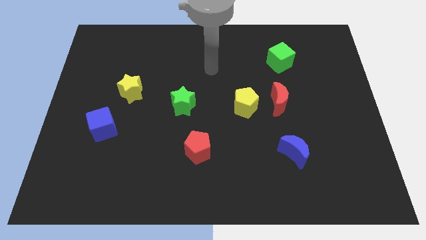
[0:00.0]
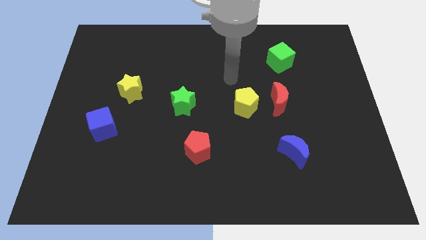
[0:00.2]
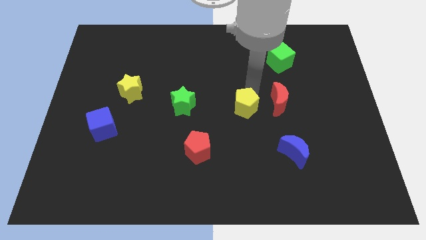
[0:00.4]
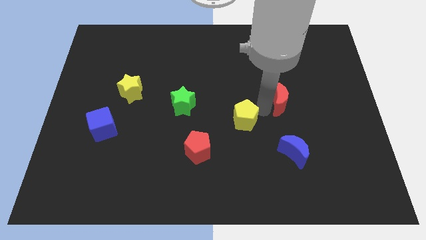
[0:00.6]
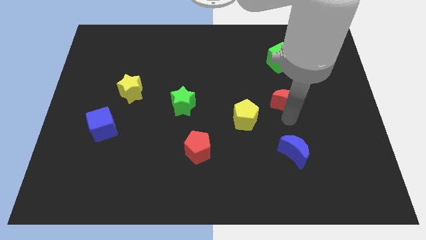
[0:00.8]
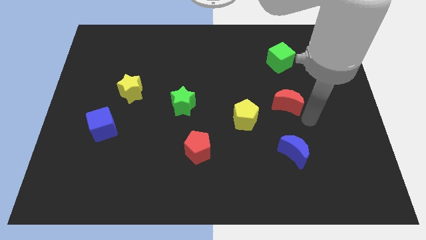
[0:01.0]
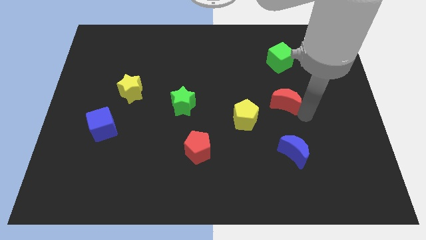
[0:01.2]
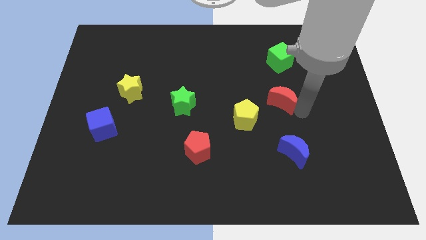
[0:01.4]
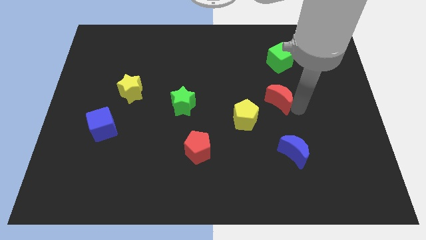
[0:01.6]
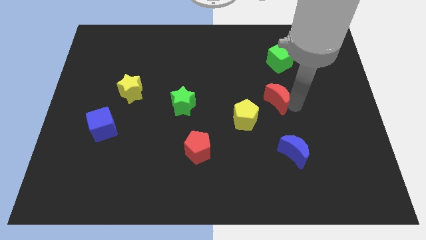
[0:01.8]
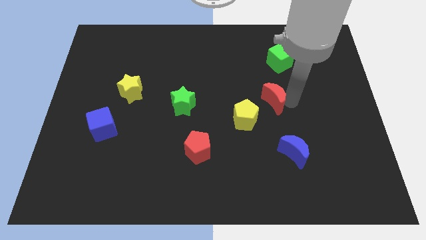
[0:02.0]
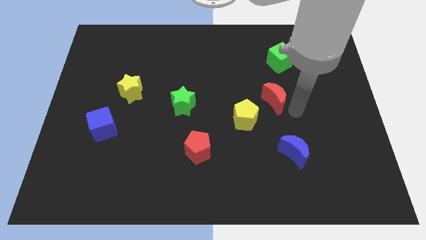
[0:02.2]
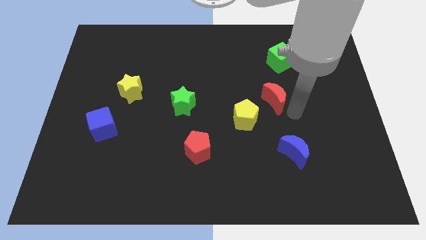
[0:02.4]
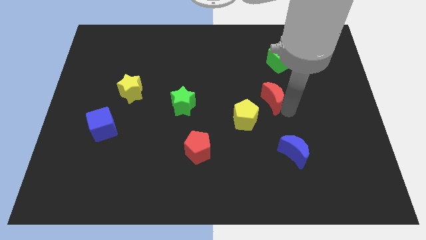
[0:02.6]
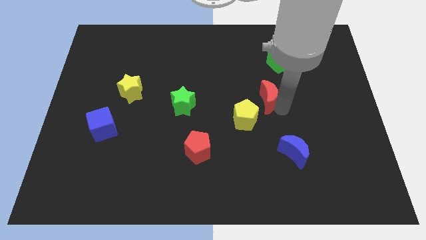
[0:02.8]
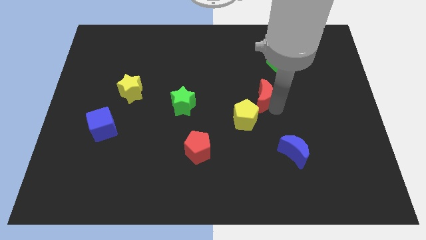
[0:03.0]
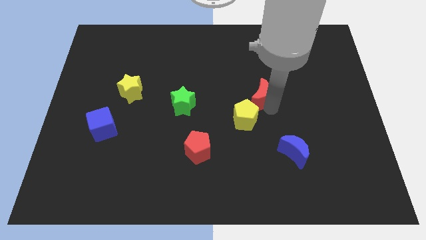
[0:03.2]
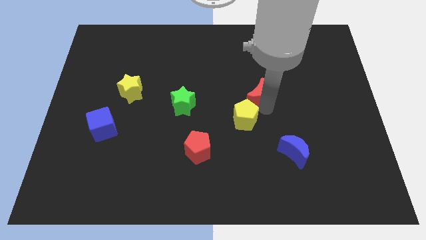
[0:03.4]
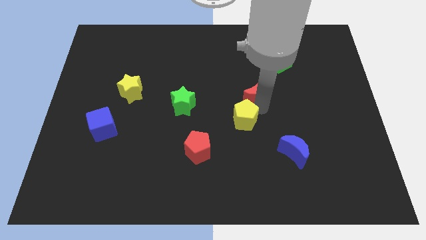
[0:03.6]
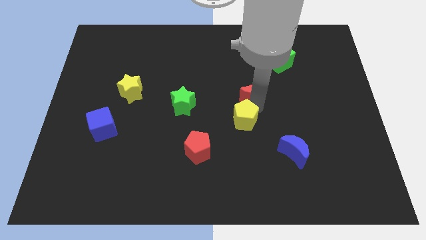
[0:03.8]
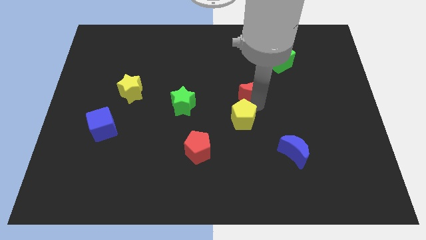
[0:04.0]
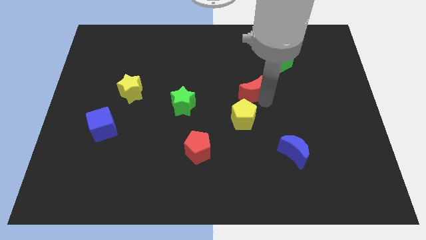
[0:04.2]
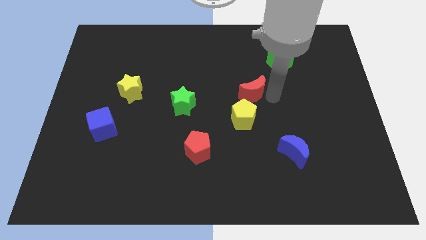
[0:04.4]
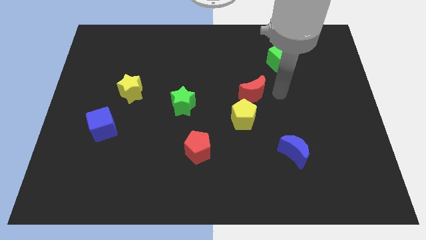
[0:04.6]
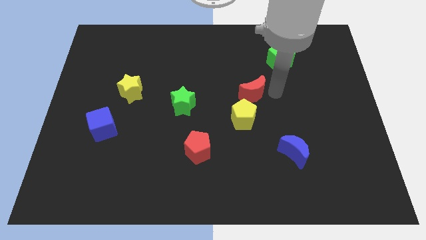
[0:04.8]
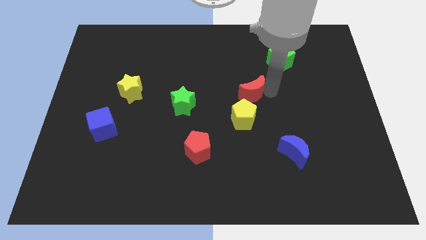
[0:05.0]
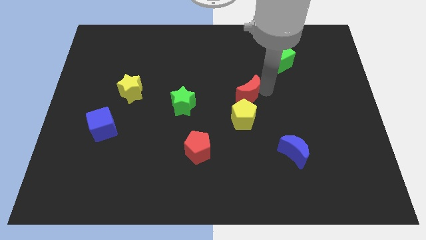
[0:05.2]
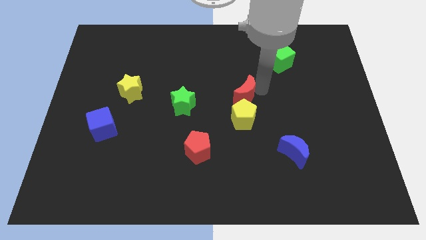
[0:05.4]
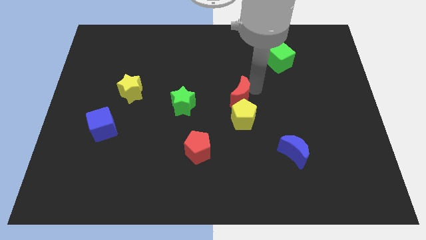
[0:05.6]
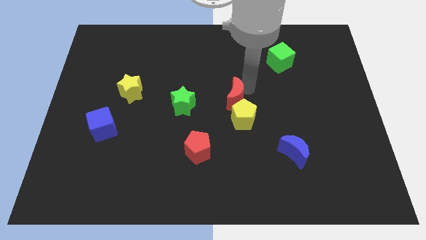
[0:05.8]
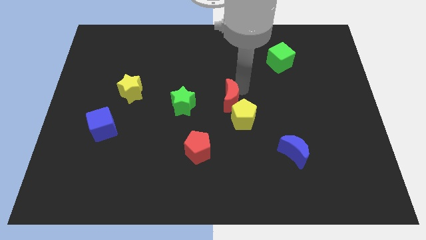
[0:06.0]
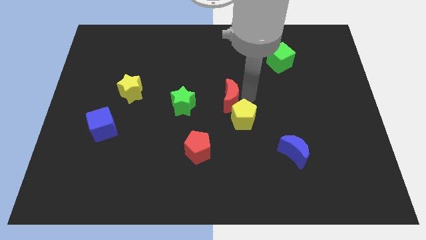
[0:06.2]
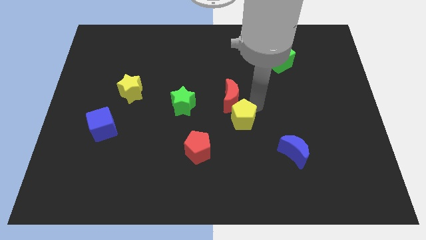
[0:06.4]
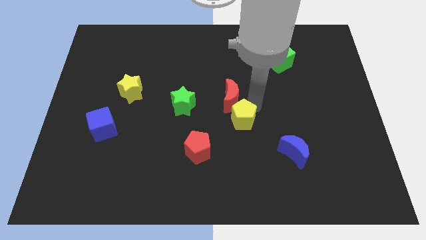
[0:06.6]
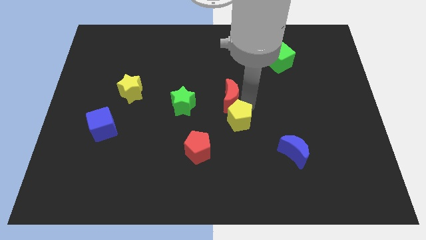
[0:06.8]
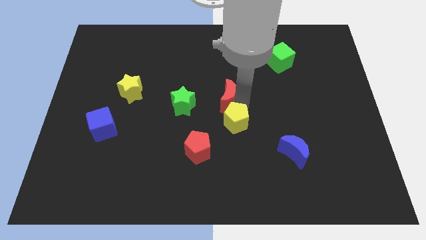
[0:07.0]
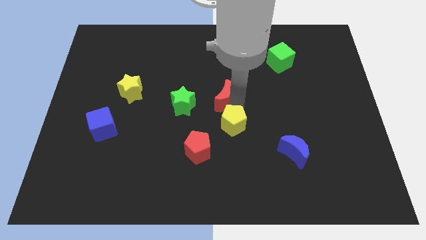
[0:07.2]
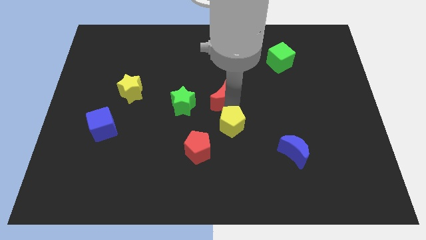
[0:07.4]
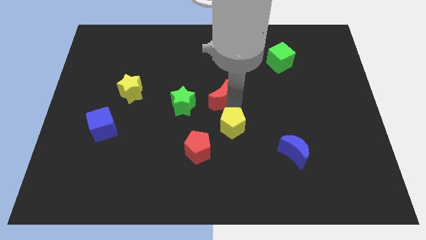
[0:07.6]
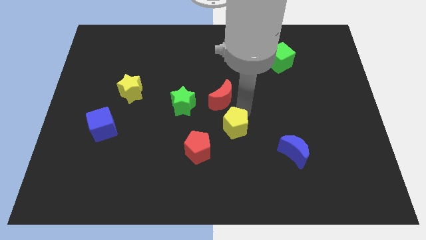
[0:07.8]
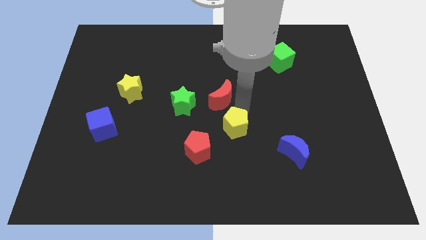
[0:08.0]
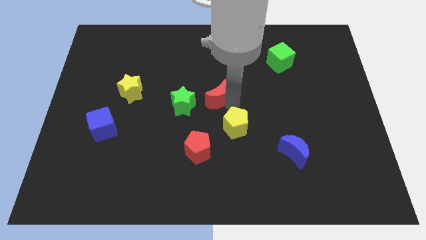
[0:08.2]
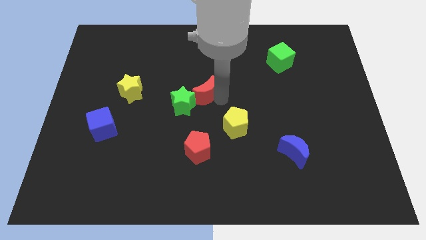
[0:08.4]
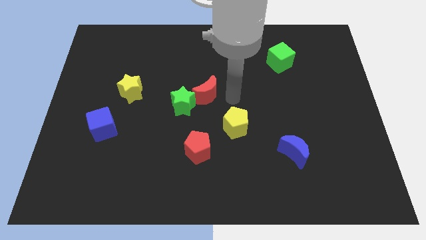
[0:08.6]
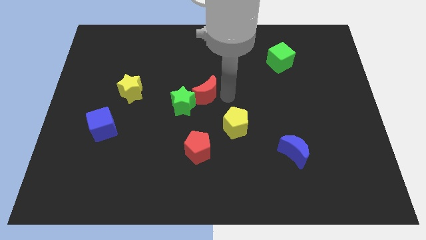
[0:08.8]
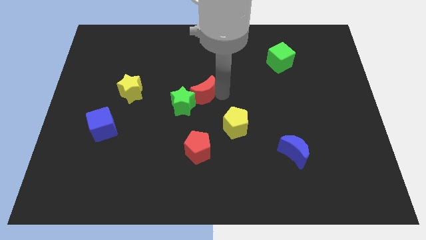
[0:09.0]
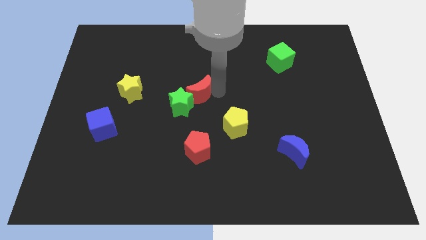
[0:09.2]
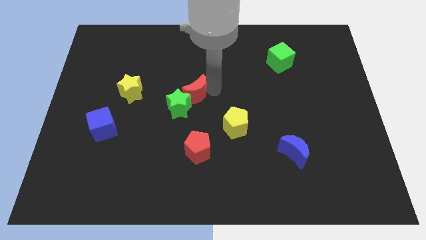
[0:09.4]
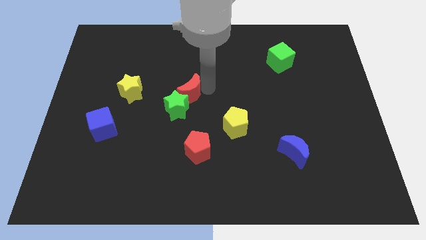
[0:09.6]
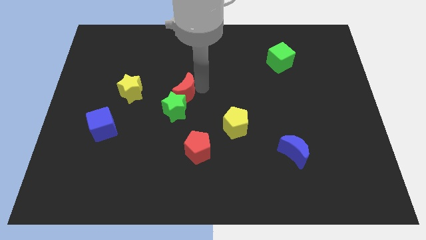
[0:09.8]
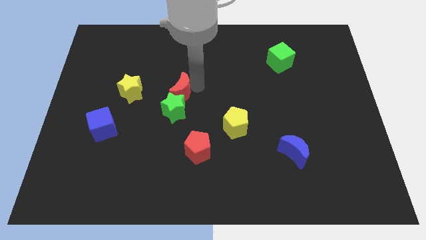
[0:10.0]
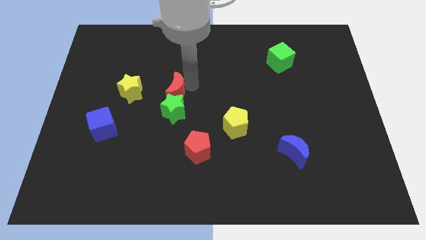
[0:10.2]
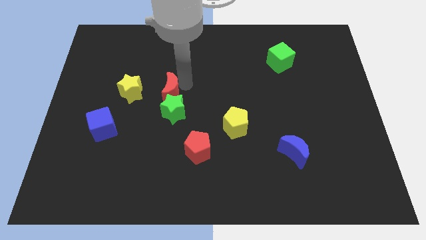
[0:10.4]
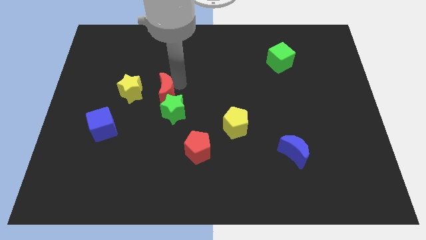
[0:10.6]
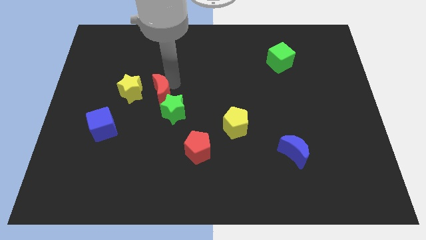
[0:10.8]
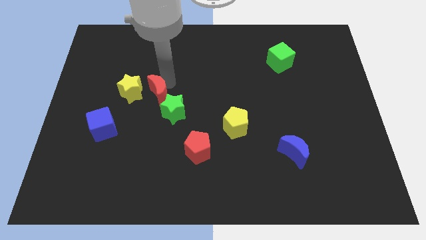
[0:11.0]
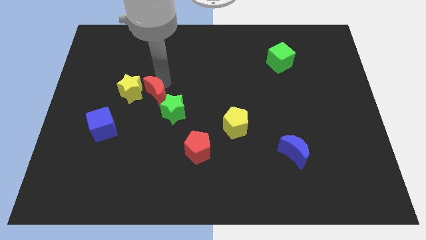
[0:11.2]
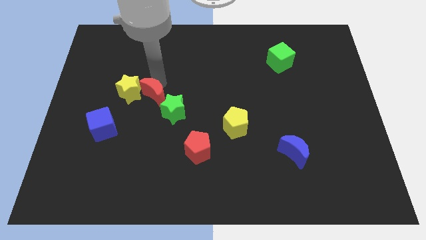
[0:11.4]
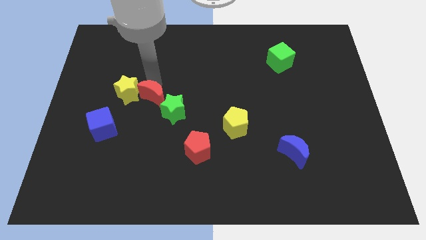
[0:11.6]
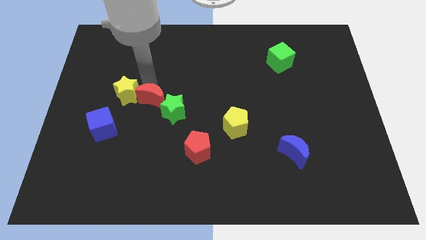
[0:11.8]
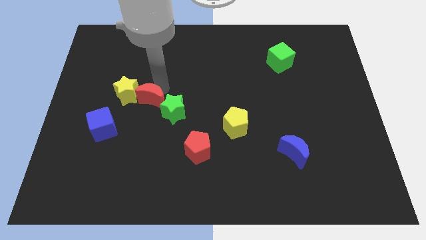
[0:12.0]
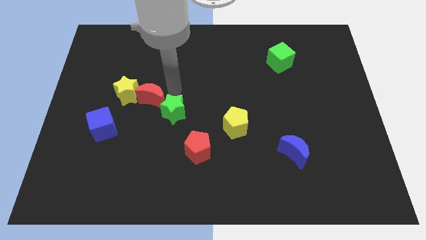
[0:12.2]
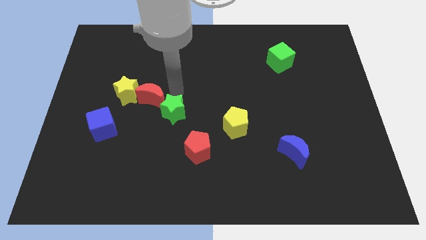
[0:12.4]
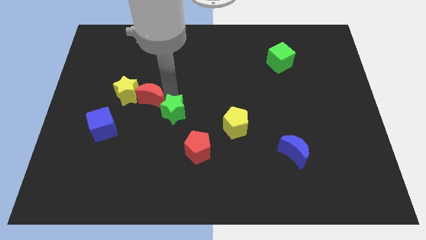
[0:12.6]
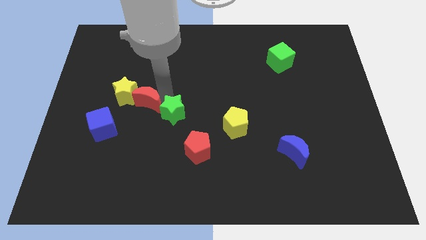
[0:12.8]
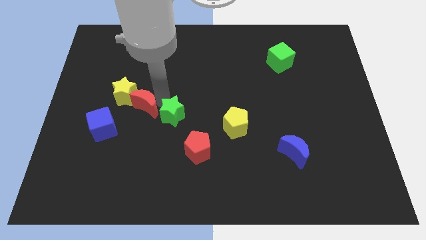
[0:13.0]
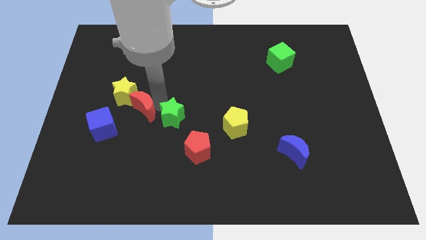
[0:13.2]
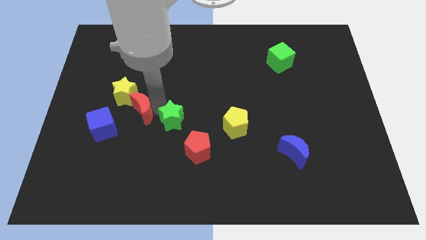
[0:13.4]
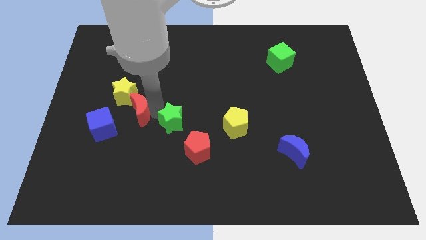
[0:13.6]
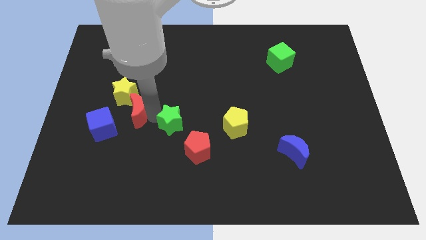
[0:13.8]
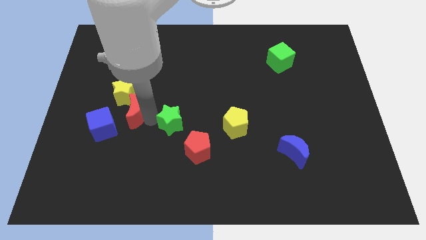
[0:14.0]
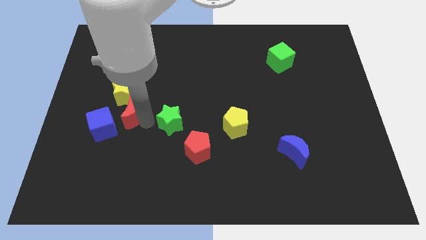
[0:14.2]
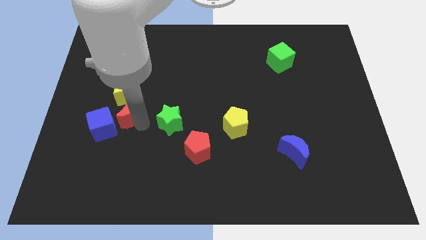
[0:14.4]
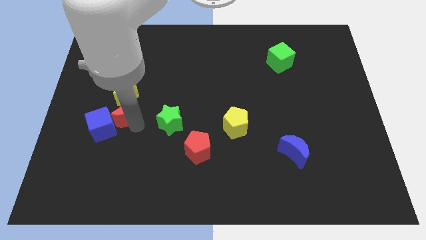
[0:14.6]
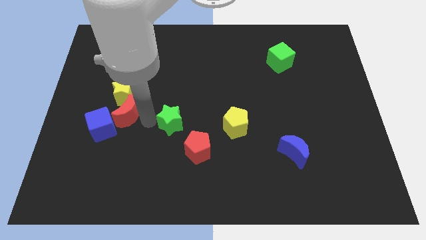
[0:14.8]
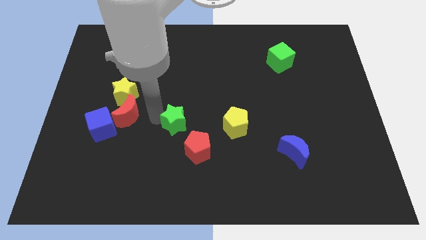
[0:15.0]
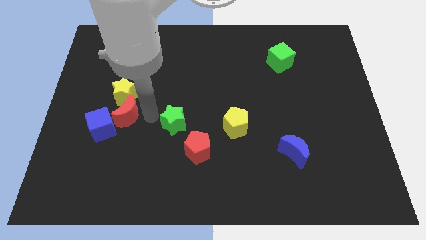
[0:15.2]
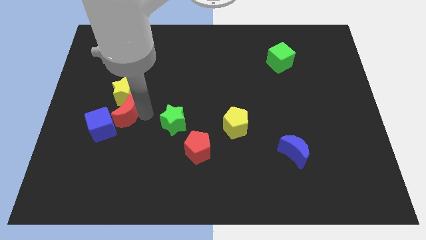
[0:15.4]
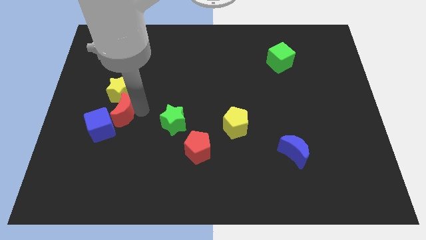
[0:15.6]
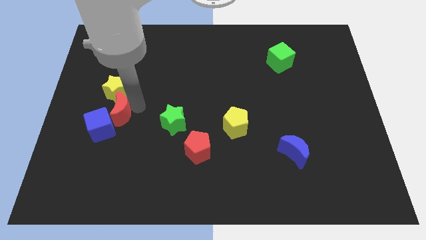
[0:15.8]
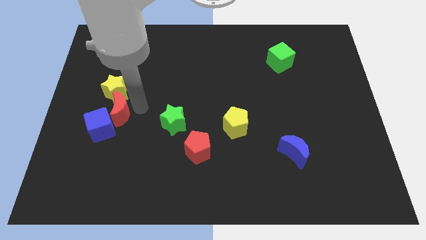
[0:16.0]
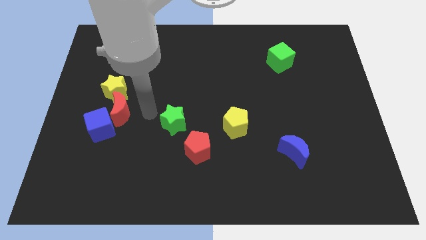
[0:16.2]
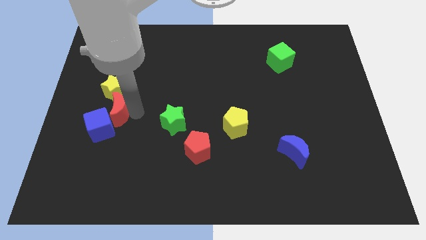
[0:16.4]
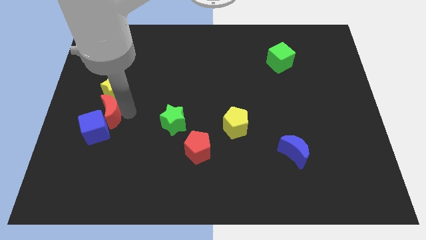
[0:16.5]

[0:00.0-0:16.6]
push the red moon to the bottom left of the yellow star
